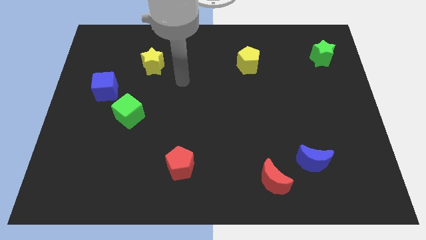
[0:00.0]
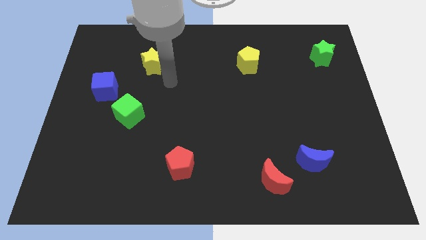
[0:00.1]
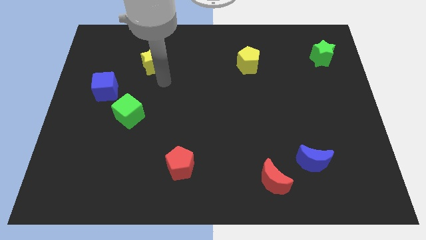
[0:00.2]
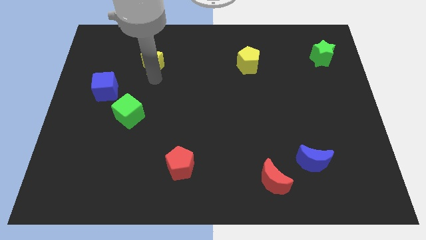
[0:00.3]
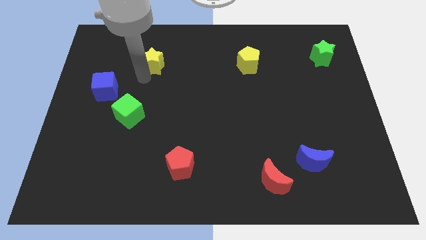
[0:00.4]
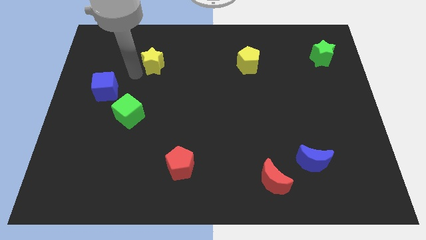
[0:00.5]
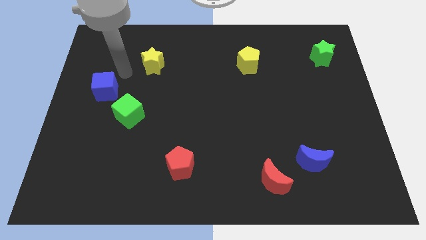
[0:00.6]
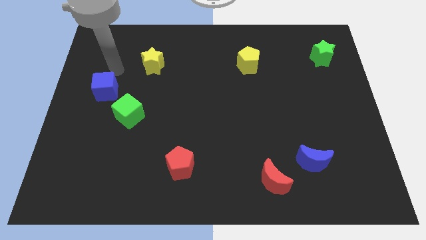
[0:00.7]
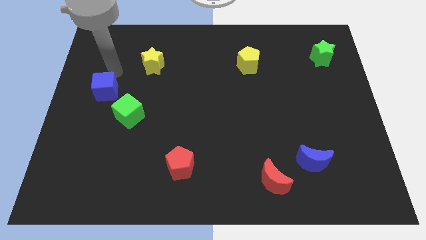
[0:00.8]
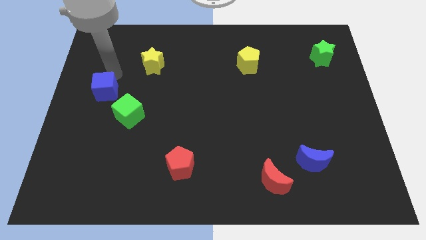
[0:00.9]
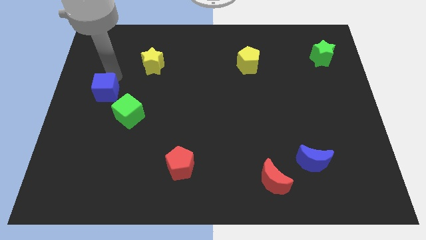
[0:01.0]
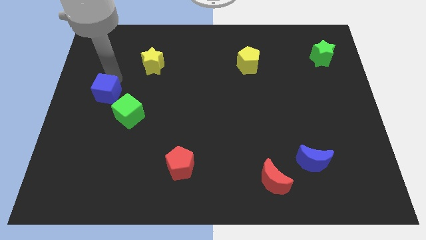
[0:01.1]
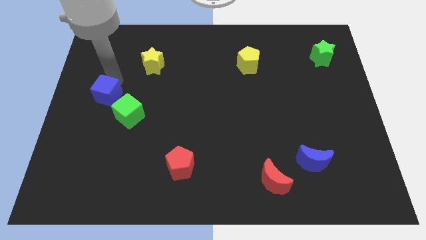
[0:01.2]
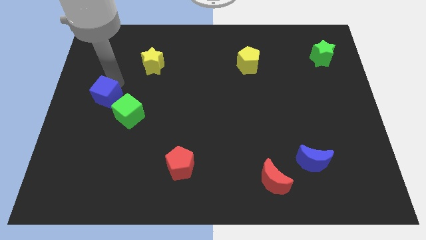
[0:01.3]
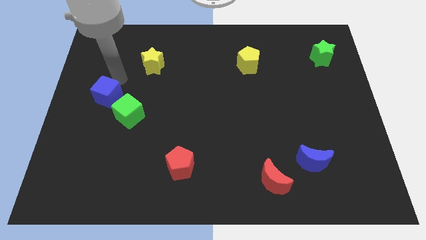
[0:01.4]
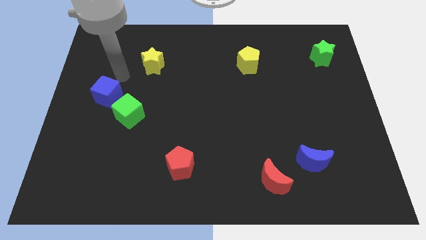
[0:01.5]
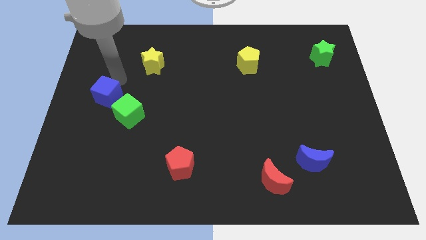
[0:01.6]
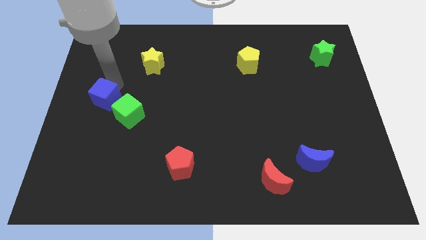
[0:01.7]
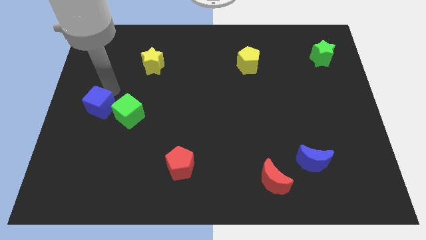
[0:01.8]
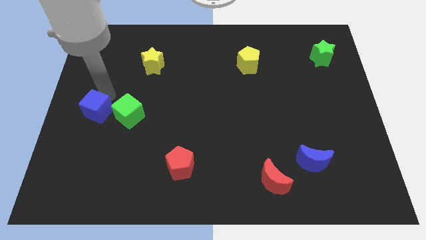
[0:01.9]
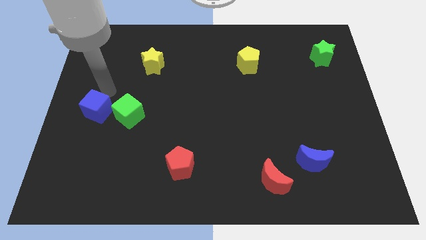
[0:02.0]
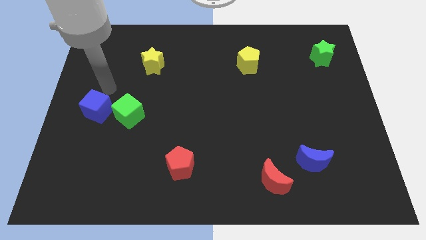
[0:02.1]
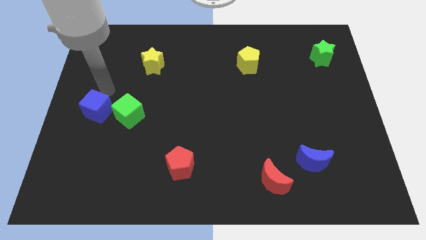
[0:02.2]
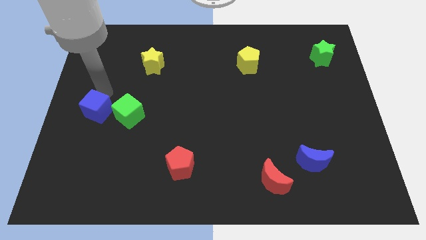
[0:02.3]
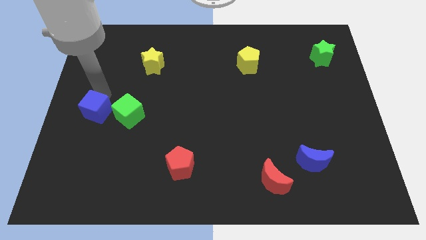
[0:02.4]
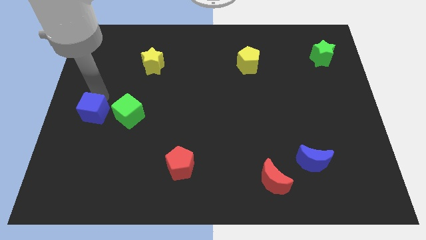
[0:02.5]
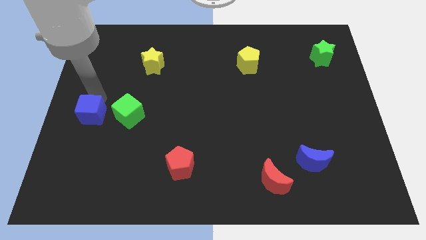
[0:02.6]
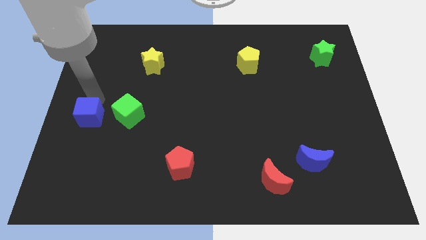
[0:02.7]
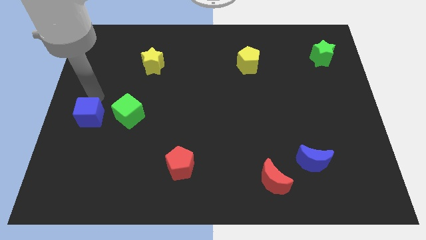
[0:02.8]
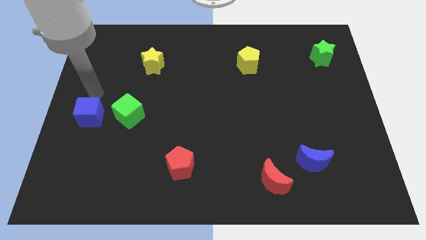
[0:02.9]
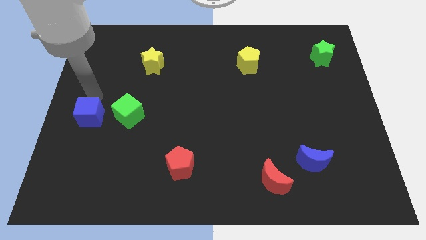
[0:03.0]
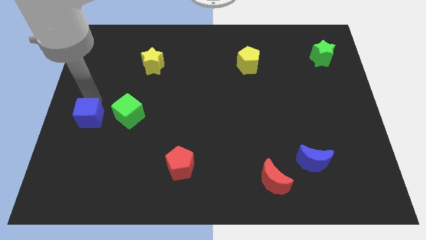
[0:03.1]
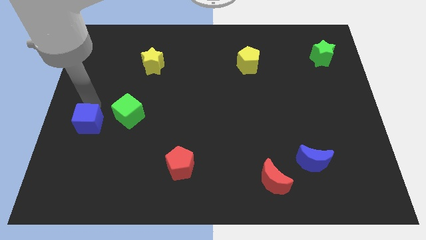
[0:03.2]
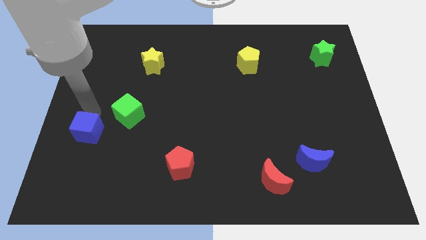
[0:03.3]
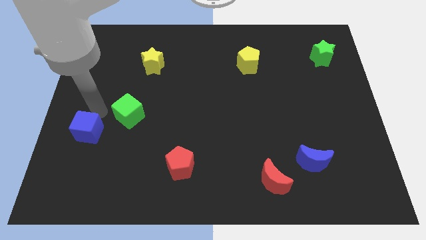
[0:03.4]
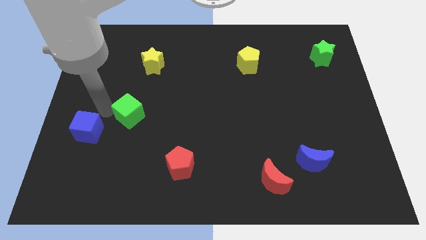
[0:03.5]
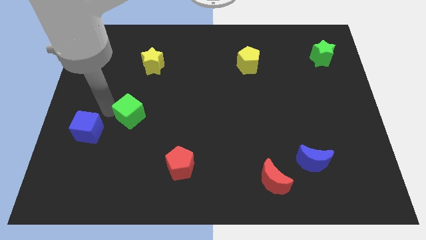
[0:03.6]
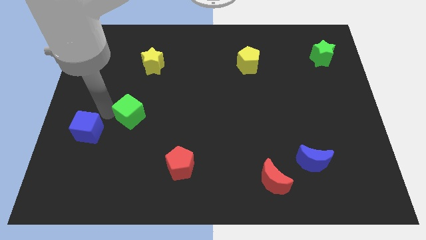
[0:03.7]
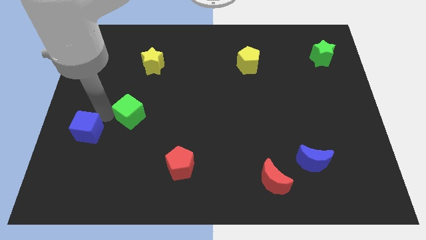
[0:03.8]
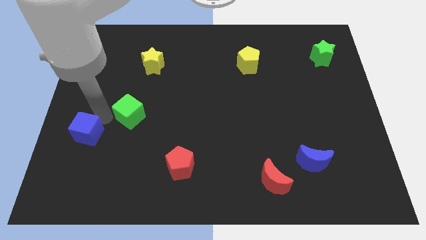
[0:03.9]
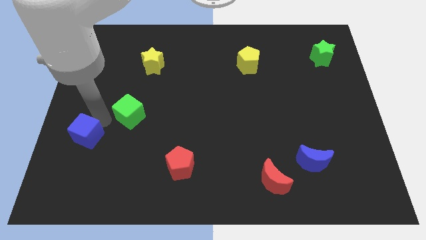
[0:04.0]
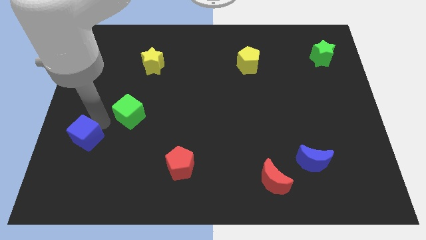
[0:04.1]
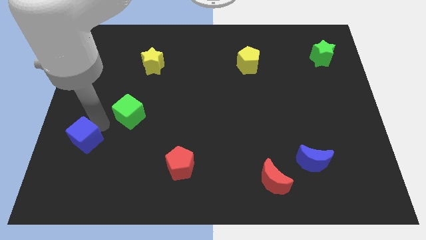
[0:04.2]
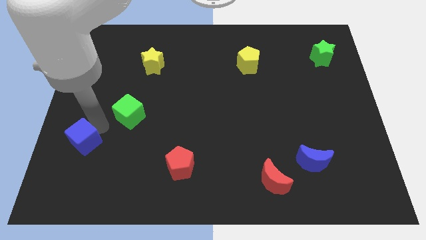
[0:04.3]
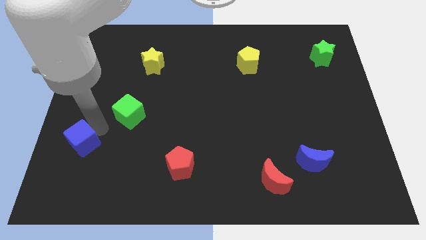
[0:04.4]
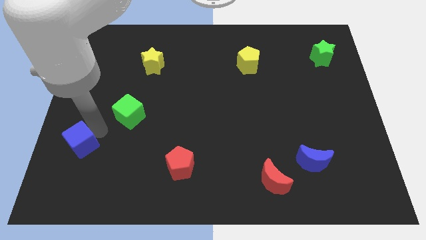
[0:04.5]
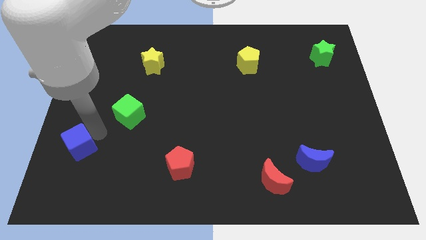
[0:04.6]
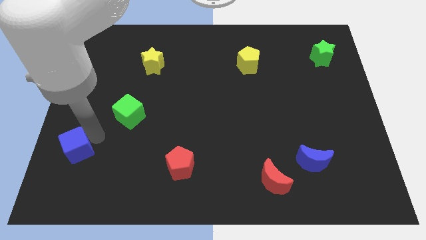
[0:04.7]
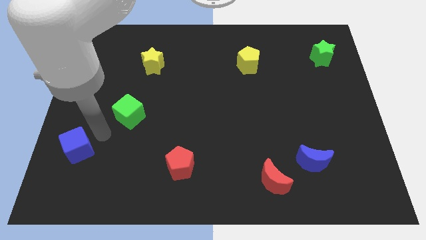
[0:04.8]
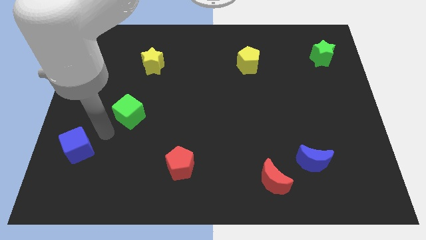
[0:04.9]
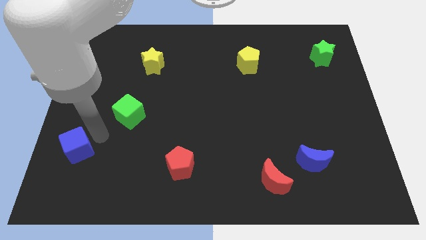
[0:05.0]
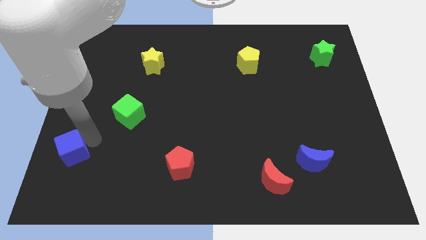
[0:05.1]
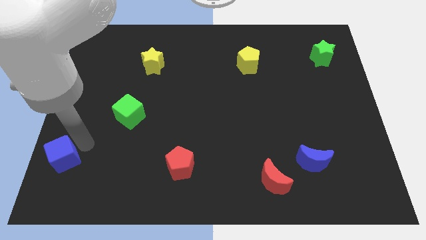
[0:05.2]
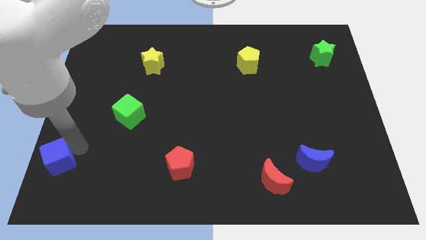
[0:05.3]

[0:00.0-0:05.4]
put the blue cube to the lower left corner
